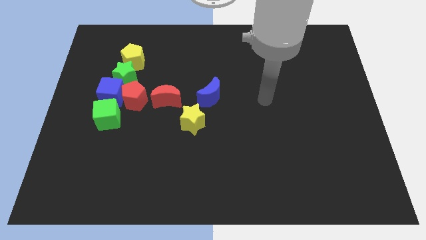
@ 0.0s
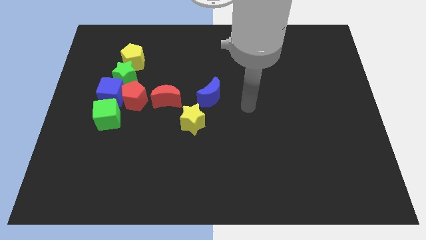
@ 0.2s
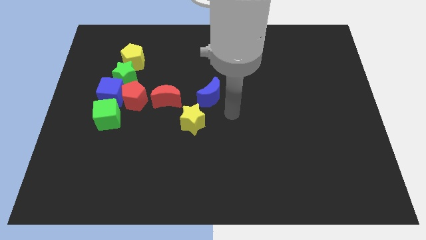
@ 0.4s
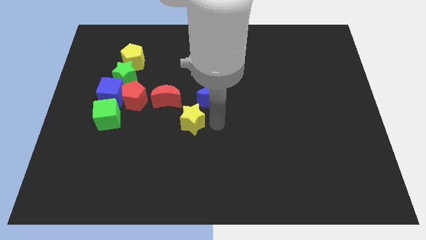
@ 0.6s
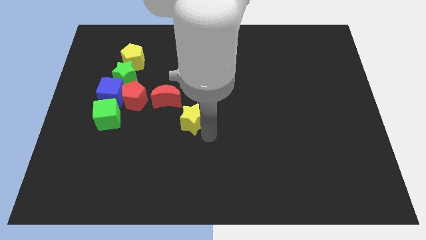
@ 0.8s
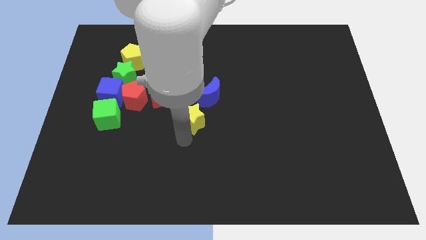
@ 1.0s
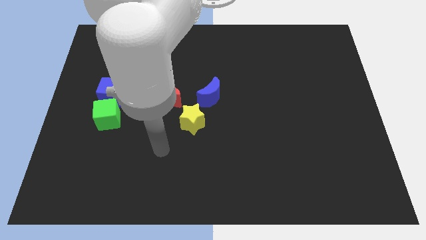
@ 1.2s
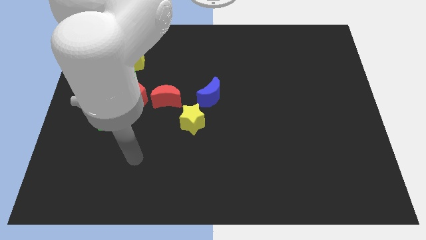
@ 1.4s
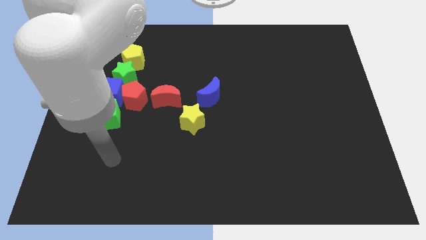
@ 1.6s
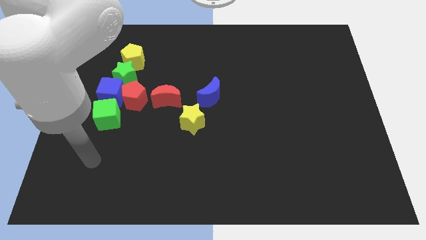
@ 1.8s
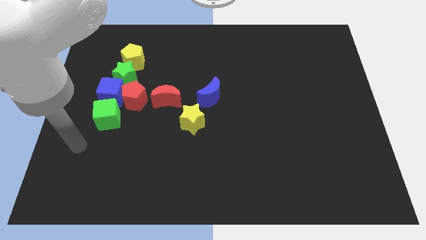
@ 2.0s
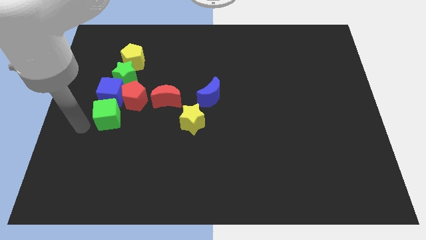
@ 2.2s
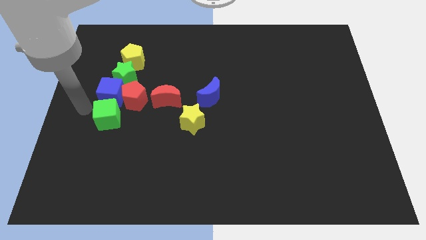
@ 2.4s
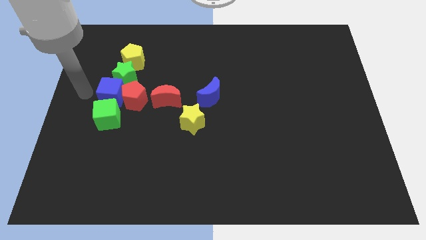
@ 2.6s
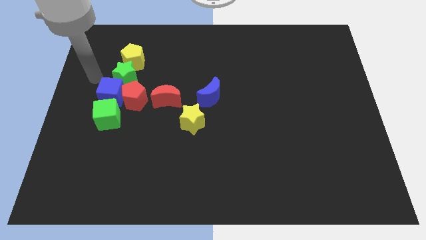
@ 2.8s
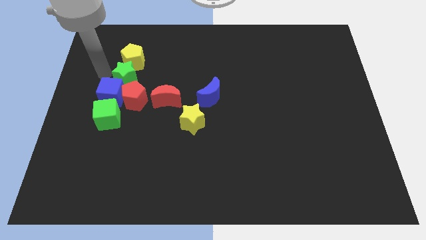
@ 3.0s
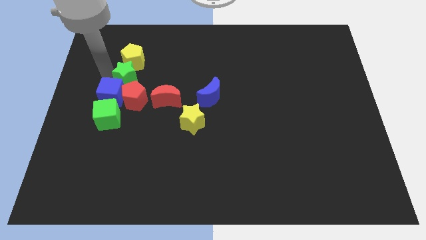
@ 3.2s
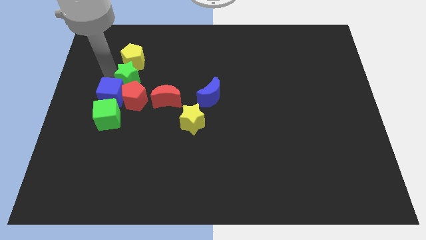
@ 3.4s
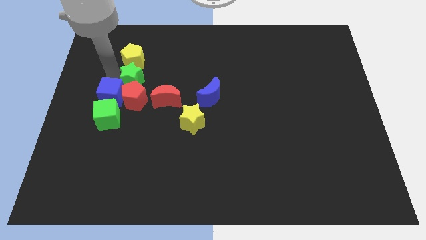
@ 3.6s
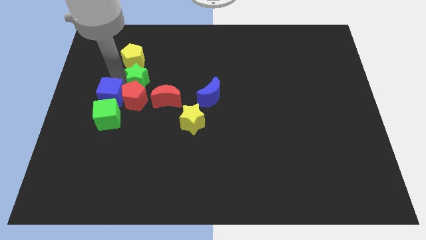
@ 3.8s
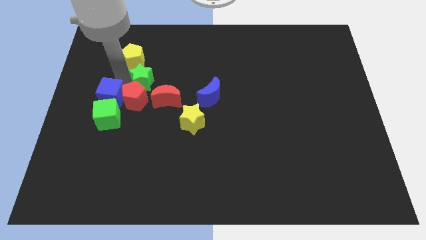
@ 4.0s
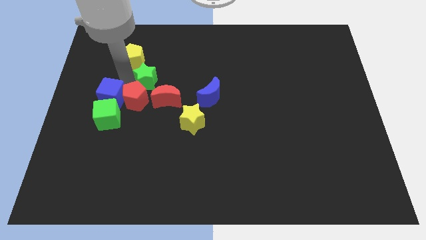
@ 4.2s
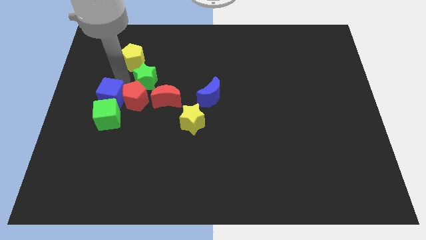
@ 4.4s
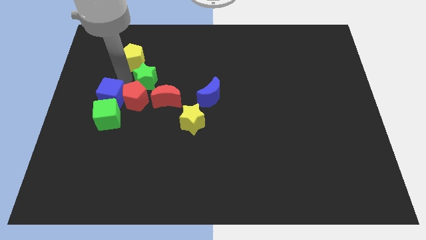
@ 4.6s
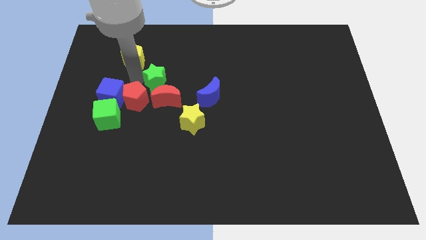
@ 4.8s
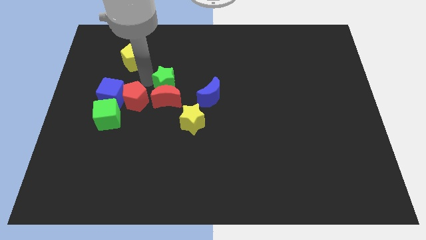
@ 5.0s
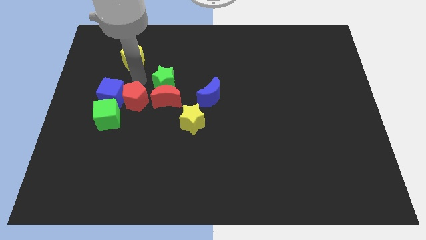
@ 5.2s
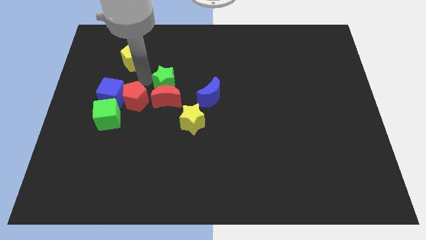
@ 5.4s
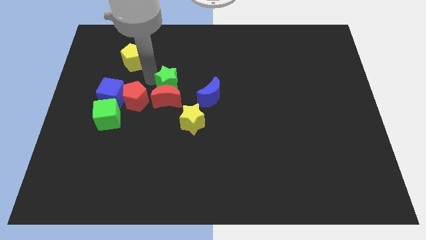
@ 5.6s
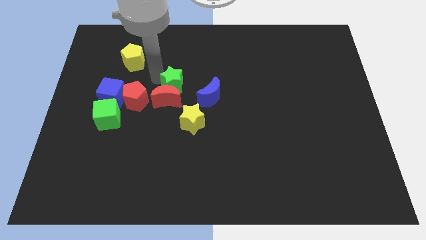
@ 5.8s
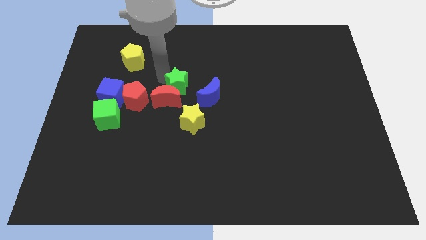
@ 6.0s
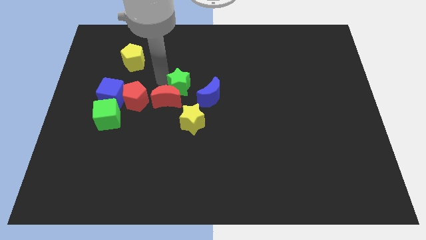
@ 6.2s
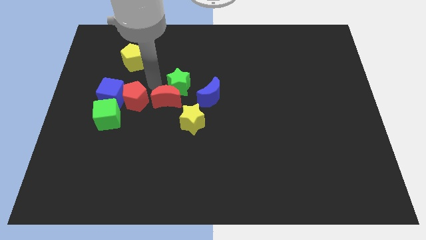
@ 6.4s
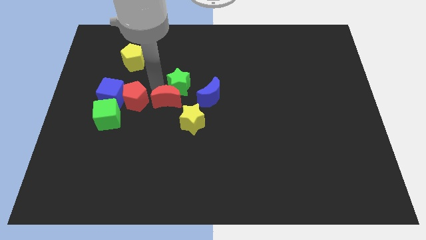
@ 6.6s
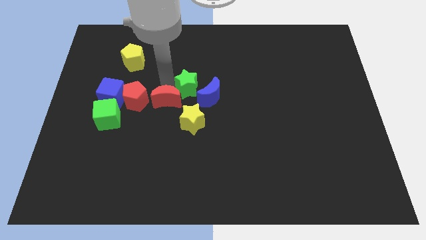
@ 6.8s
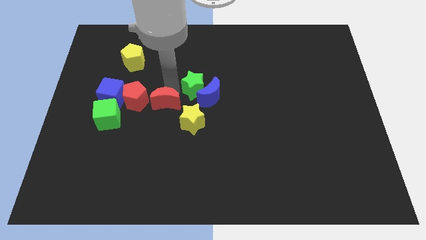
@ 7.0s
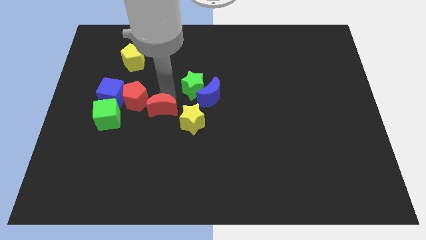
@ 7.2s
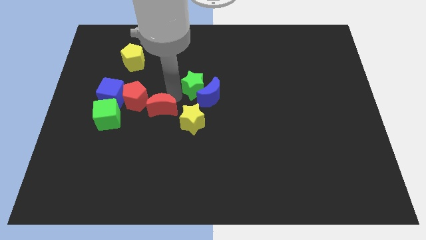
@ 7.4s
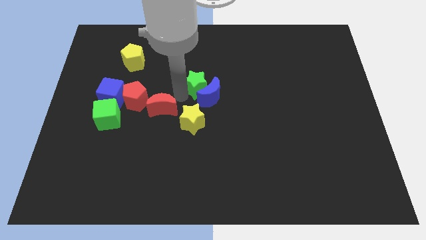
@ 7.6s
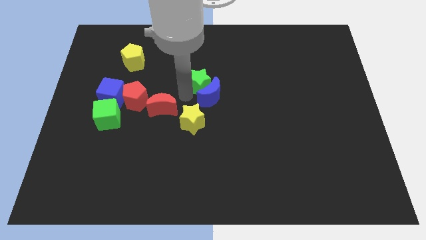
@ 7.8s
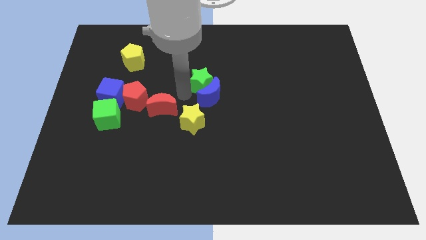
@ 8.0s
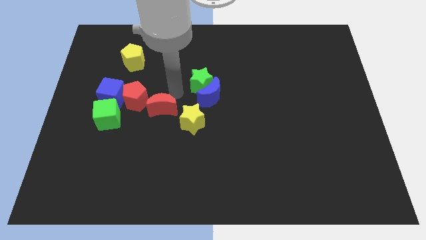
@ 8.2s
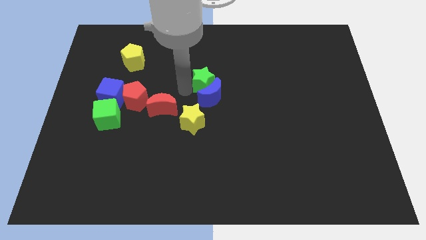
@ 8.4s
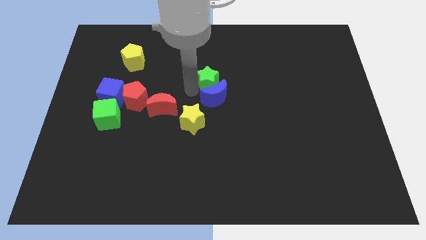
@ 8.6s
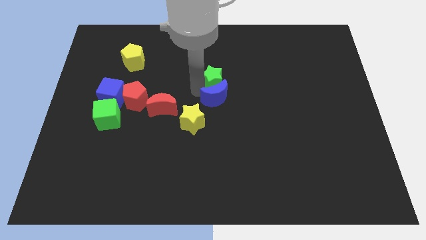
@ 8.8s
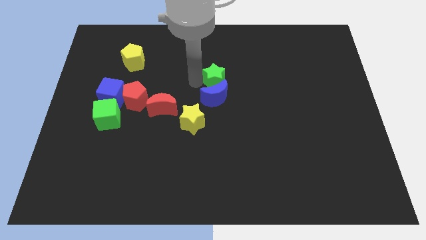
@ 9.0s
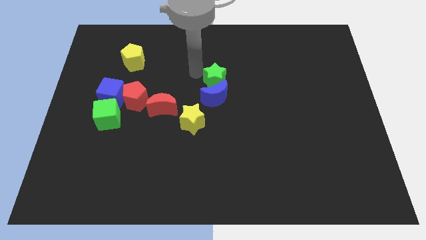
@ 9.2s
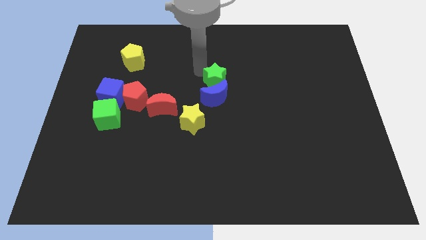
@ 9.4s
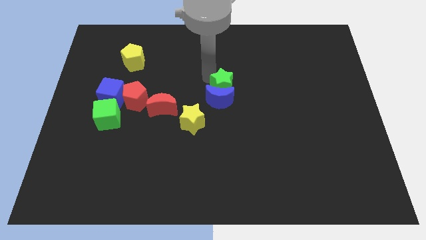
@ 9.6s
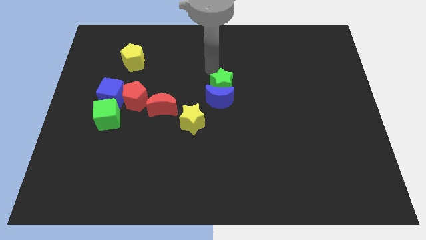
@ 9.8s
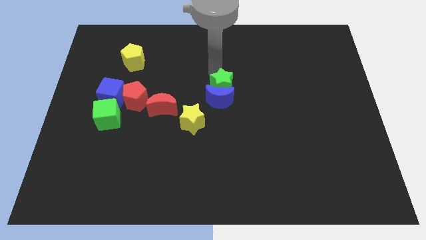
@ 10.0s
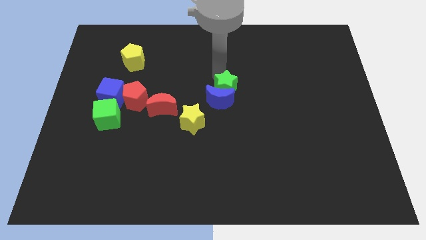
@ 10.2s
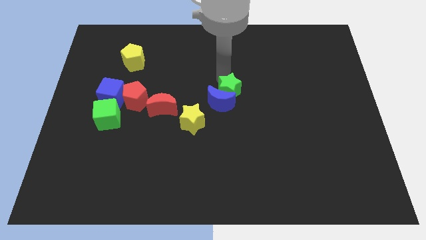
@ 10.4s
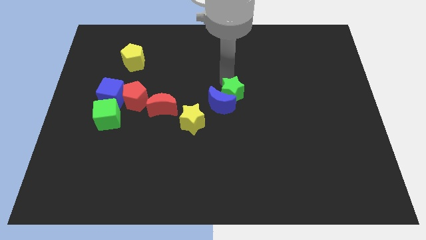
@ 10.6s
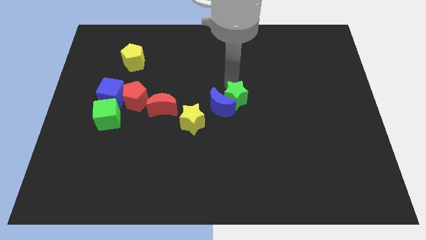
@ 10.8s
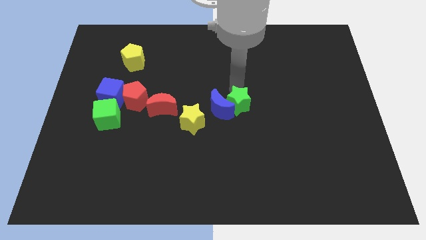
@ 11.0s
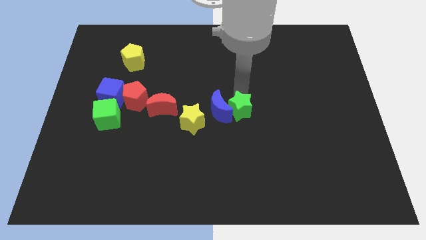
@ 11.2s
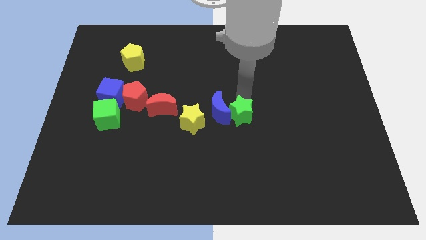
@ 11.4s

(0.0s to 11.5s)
move the green star diagonally downwards and right

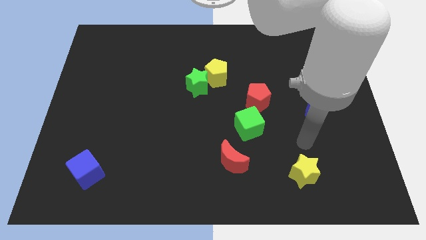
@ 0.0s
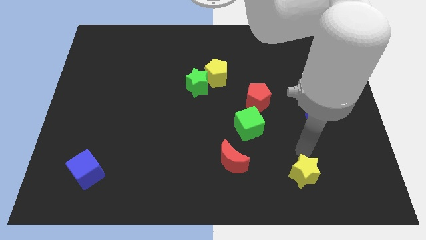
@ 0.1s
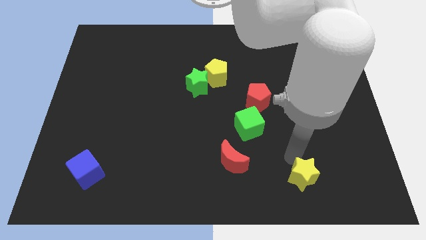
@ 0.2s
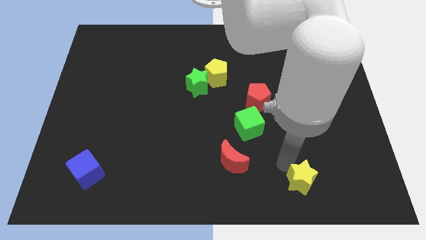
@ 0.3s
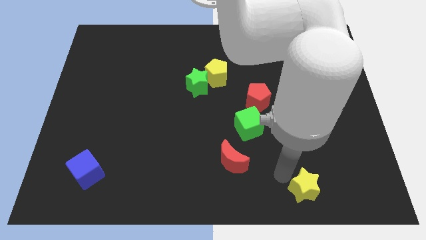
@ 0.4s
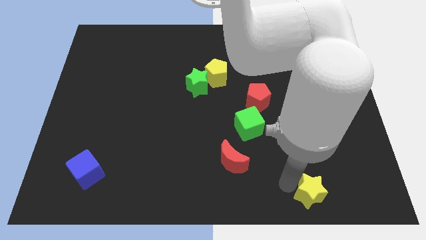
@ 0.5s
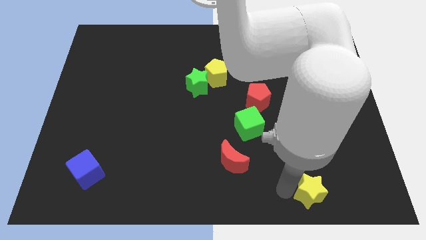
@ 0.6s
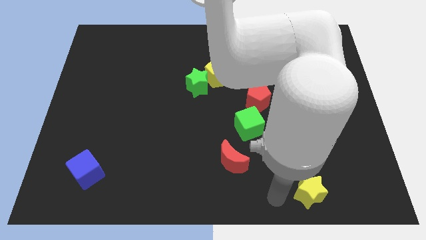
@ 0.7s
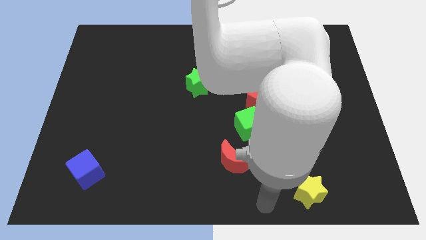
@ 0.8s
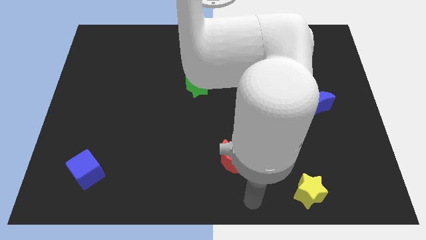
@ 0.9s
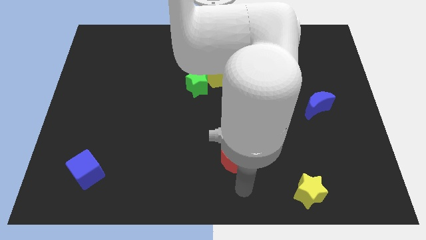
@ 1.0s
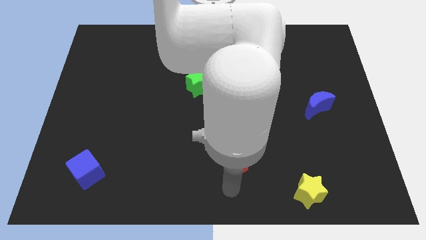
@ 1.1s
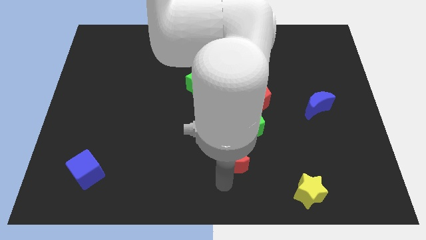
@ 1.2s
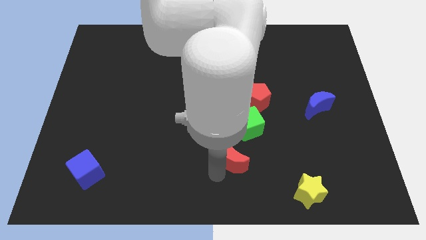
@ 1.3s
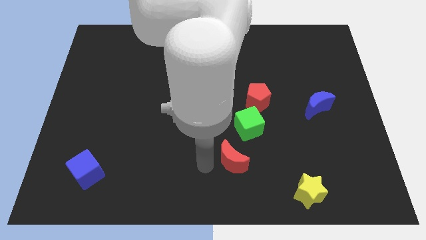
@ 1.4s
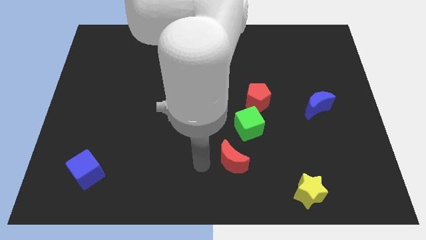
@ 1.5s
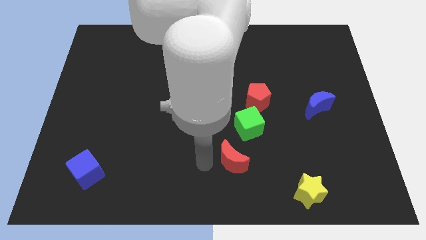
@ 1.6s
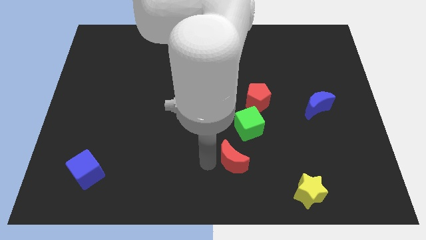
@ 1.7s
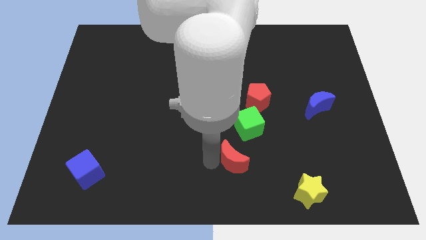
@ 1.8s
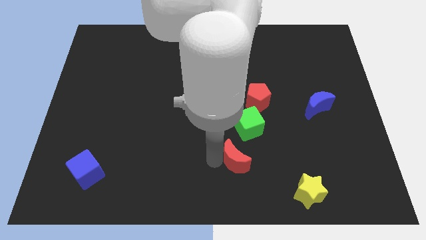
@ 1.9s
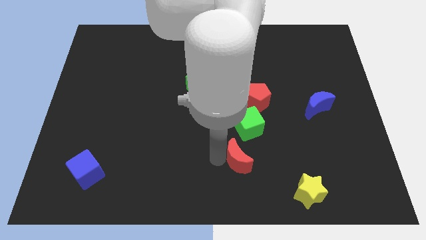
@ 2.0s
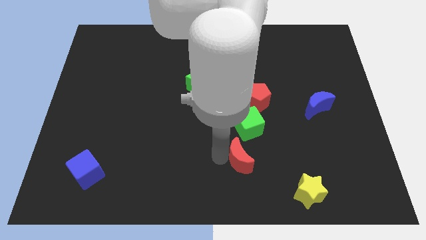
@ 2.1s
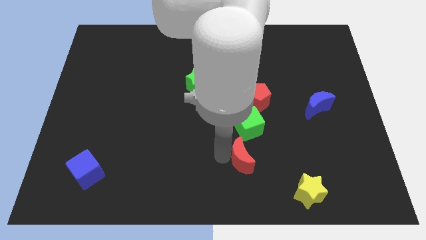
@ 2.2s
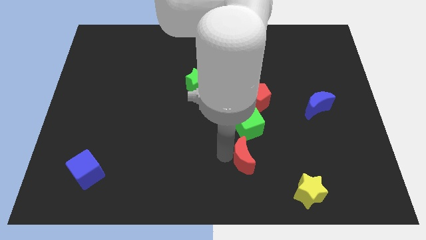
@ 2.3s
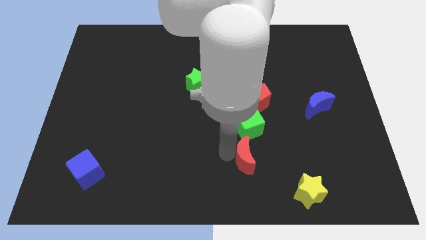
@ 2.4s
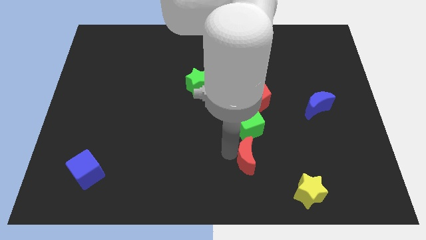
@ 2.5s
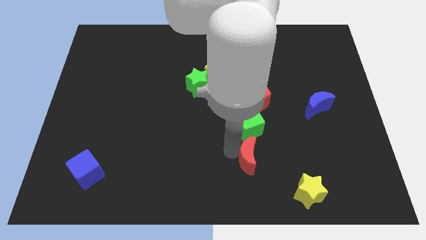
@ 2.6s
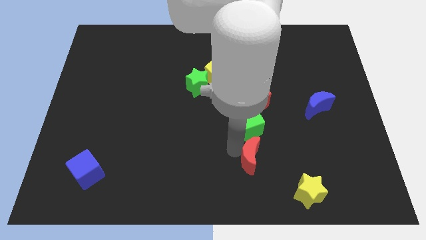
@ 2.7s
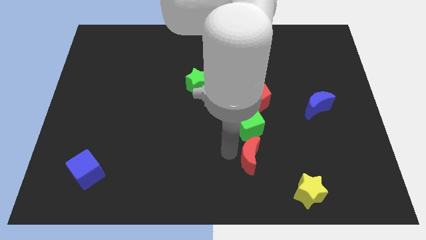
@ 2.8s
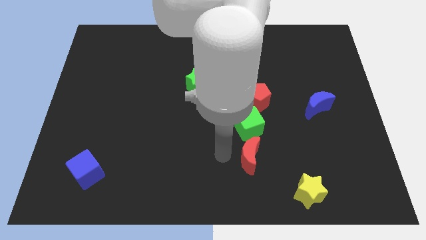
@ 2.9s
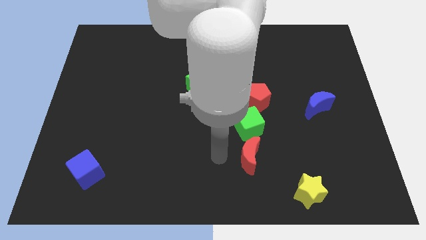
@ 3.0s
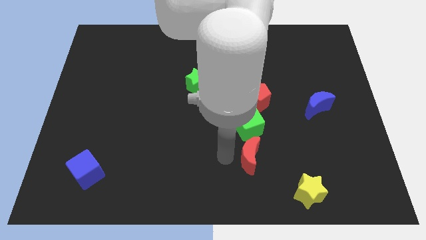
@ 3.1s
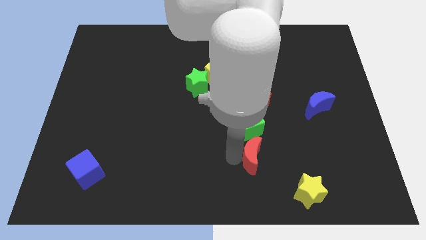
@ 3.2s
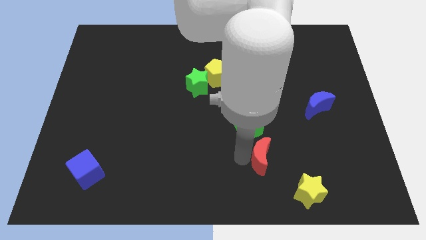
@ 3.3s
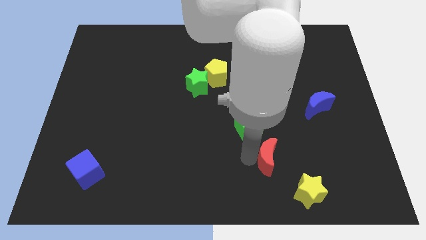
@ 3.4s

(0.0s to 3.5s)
push the red moon to the right a little
